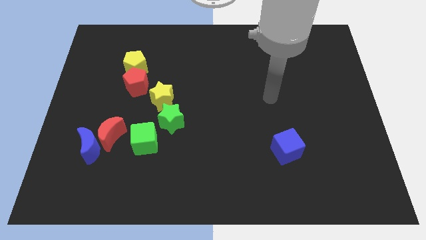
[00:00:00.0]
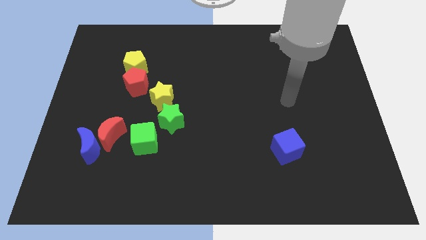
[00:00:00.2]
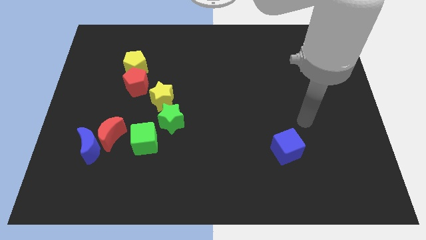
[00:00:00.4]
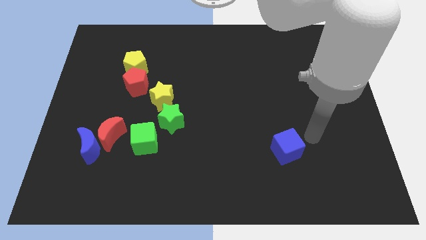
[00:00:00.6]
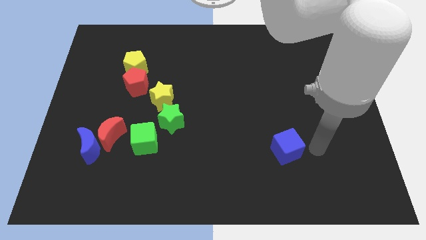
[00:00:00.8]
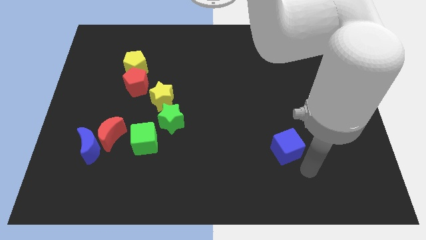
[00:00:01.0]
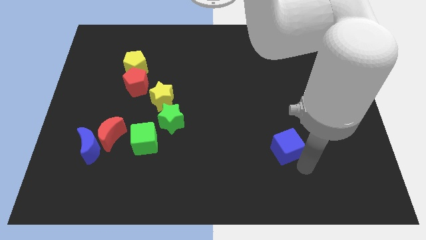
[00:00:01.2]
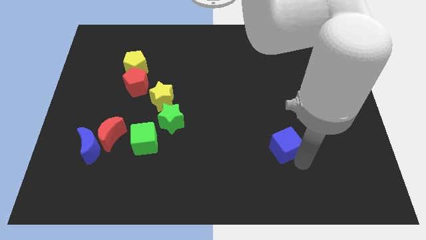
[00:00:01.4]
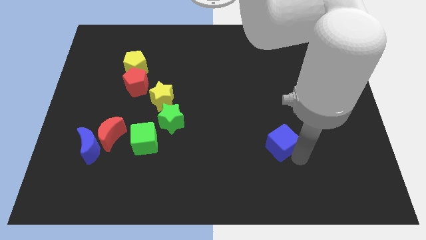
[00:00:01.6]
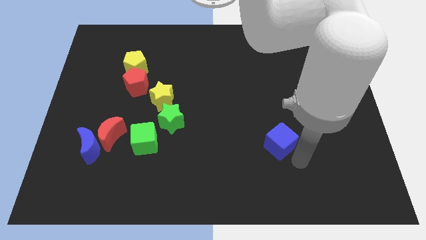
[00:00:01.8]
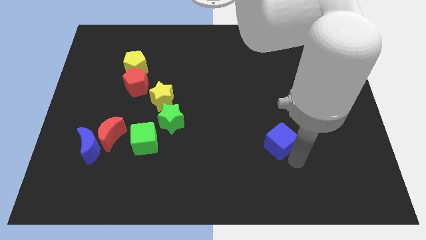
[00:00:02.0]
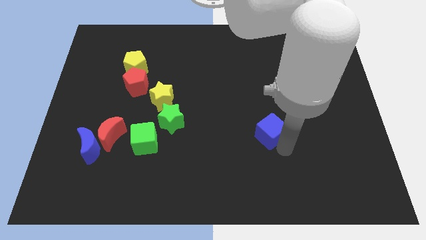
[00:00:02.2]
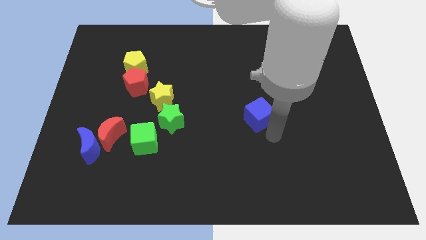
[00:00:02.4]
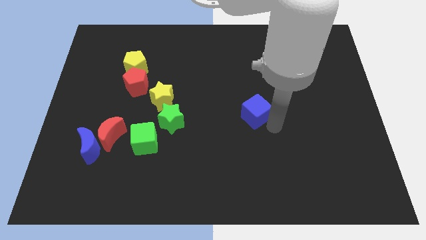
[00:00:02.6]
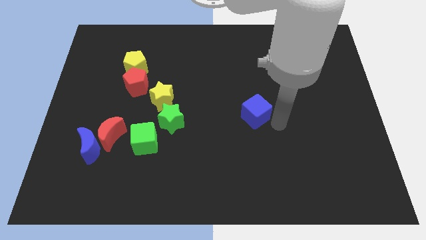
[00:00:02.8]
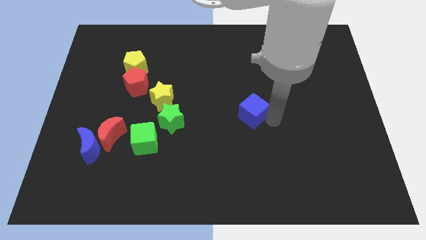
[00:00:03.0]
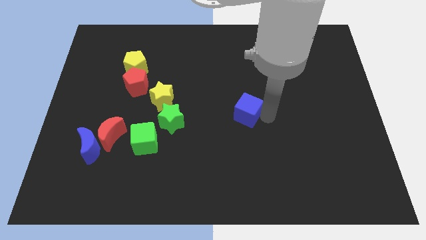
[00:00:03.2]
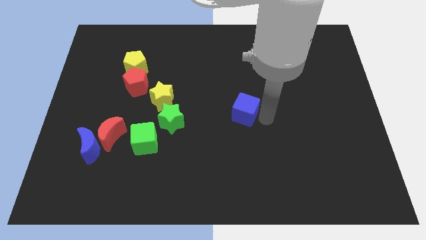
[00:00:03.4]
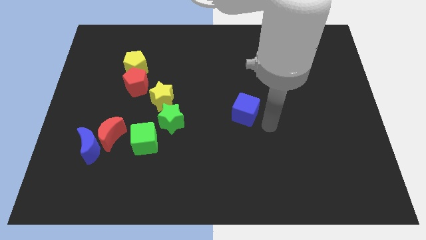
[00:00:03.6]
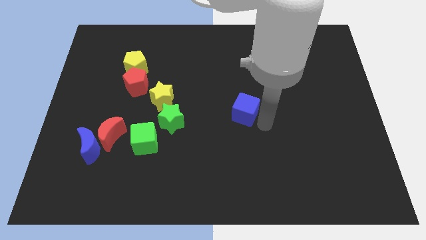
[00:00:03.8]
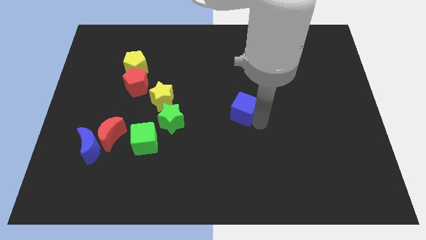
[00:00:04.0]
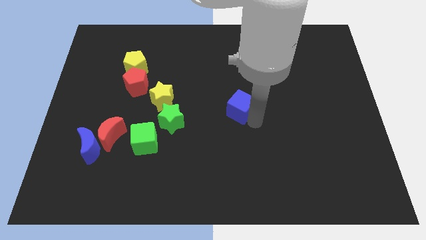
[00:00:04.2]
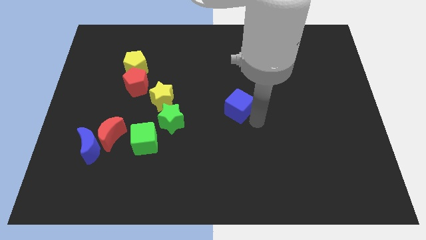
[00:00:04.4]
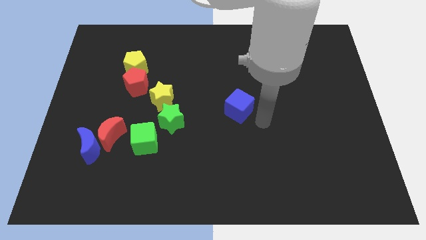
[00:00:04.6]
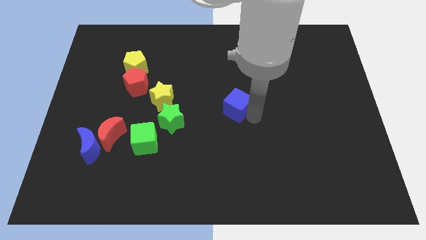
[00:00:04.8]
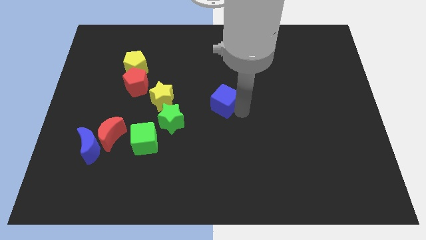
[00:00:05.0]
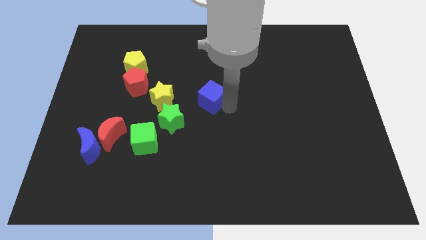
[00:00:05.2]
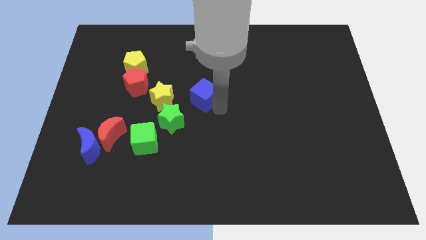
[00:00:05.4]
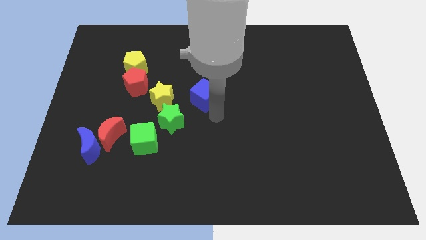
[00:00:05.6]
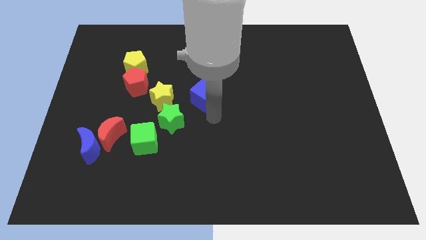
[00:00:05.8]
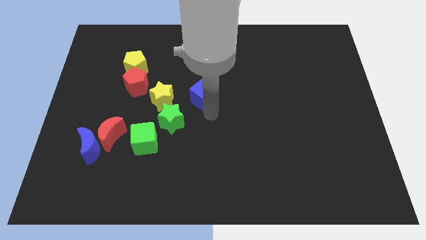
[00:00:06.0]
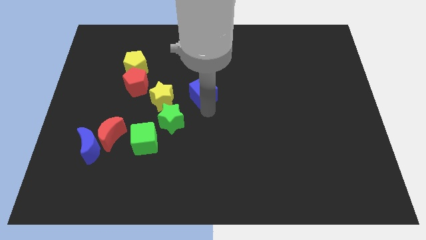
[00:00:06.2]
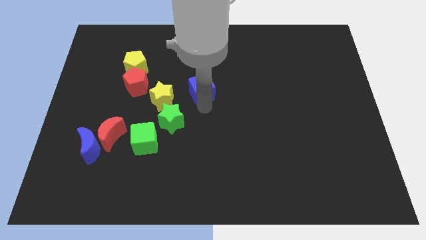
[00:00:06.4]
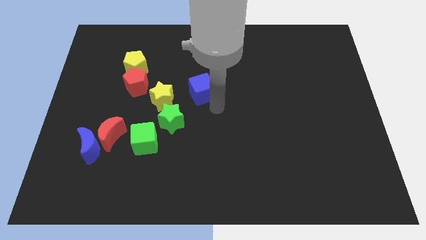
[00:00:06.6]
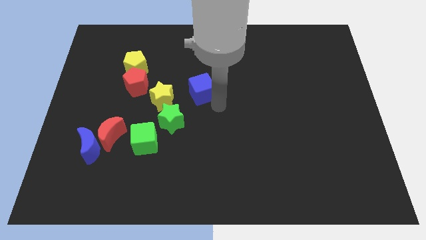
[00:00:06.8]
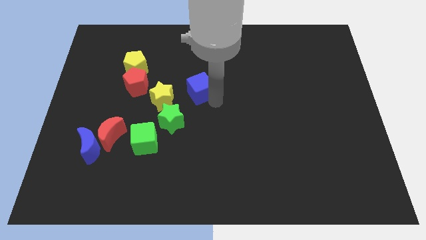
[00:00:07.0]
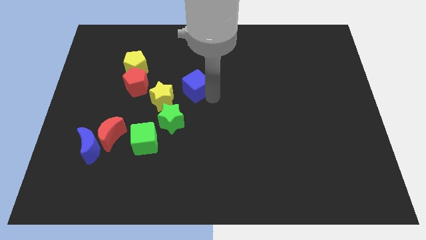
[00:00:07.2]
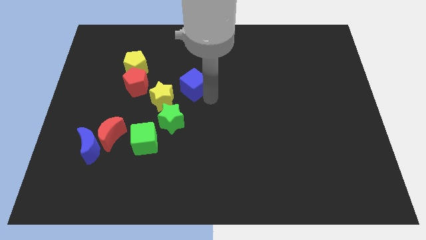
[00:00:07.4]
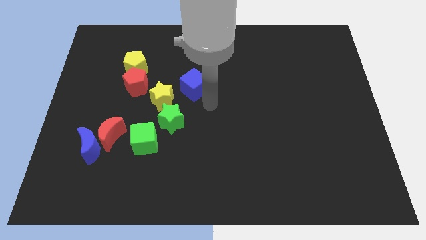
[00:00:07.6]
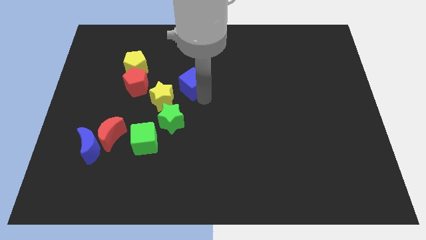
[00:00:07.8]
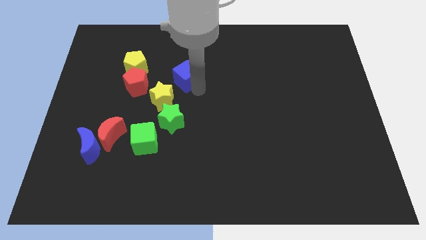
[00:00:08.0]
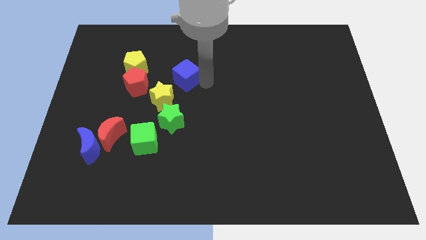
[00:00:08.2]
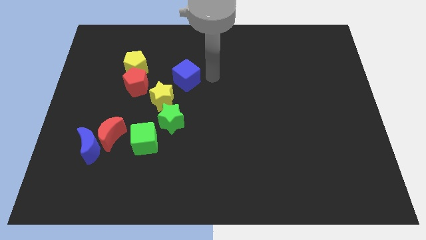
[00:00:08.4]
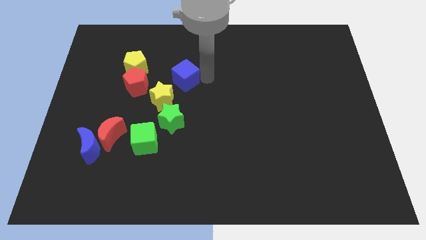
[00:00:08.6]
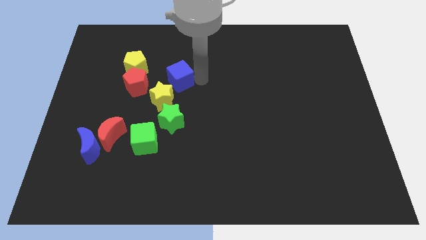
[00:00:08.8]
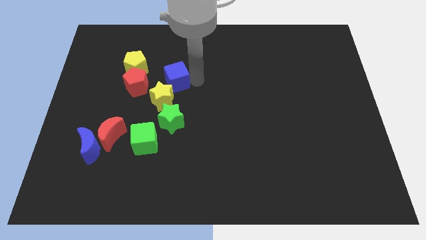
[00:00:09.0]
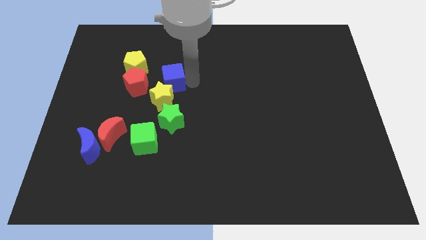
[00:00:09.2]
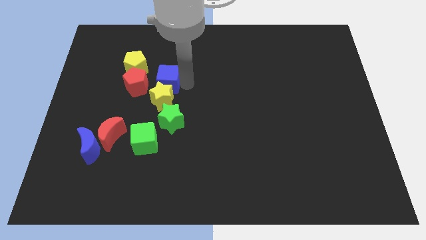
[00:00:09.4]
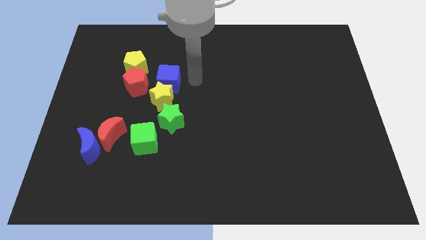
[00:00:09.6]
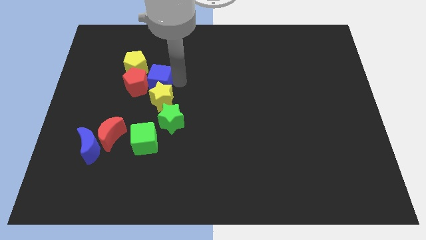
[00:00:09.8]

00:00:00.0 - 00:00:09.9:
push the blue cube close to the red pentagon

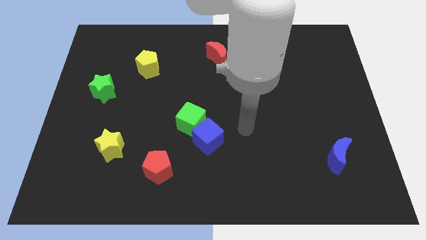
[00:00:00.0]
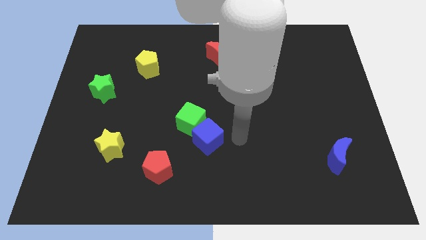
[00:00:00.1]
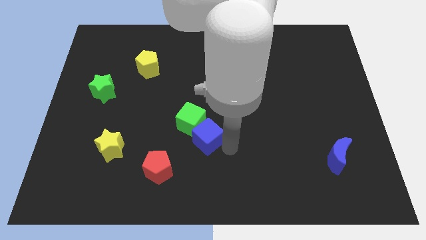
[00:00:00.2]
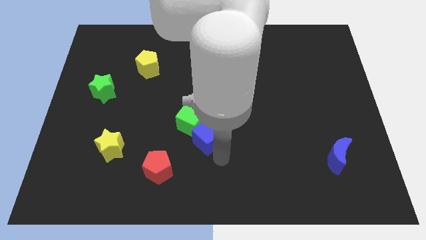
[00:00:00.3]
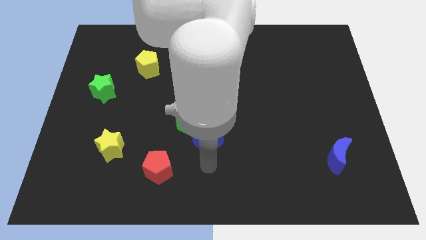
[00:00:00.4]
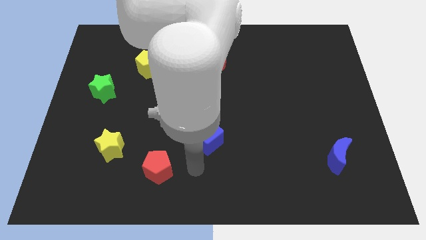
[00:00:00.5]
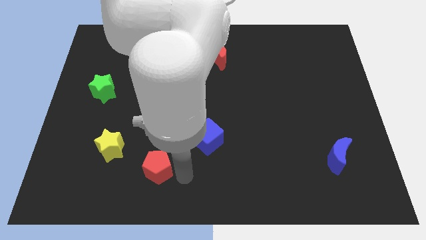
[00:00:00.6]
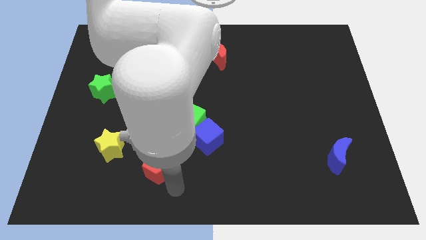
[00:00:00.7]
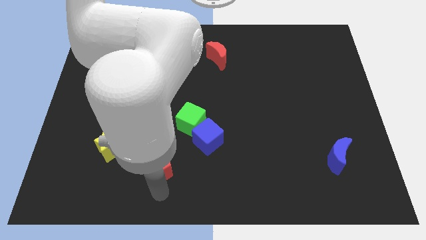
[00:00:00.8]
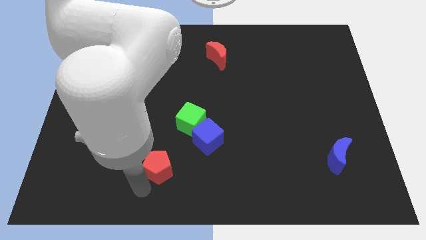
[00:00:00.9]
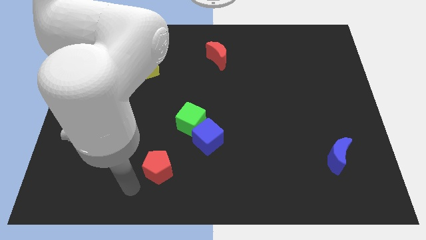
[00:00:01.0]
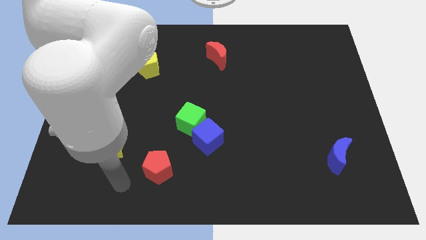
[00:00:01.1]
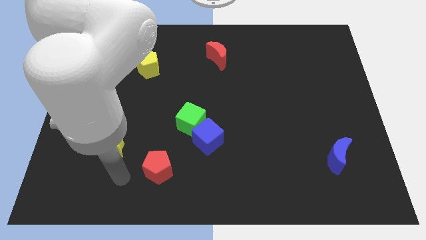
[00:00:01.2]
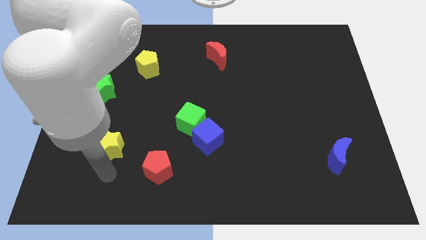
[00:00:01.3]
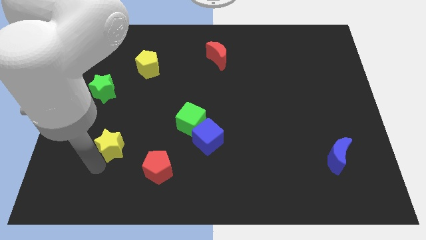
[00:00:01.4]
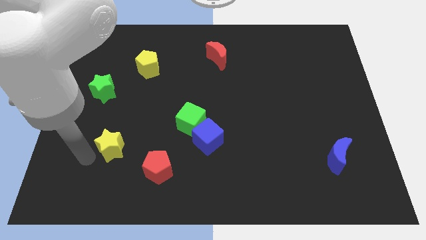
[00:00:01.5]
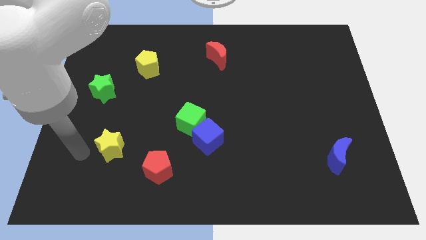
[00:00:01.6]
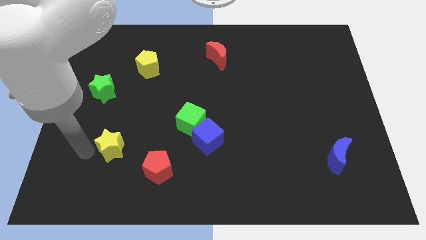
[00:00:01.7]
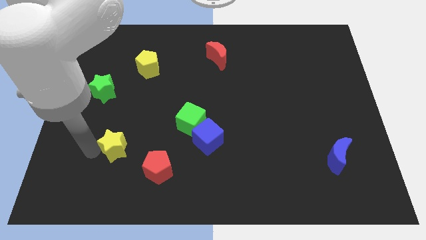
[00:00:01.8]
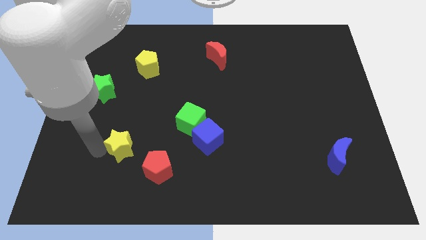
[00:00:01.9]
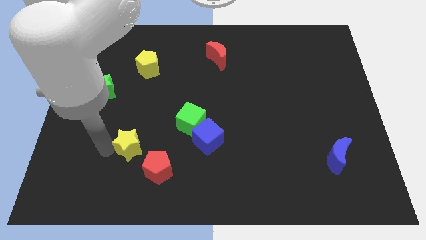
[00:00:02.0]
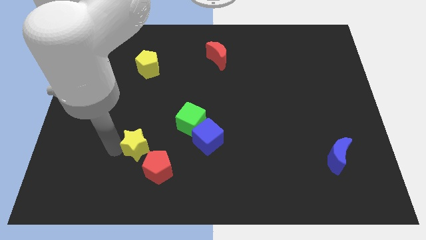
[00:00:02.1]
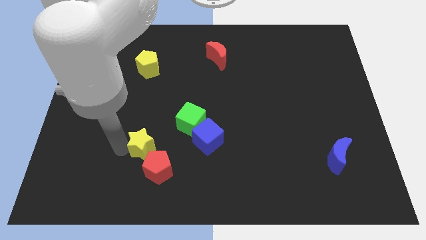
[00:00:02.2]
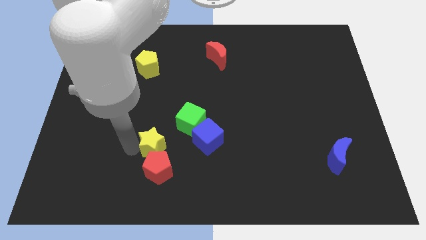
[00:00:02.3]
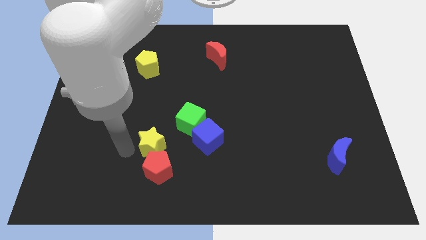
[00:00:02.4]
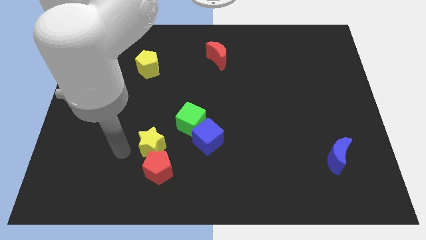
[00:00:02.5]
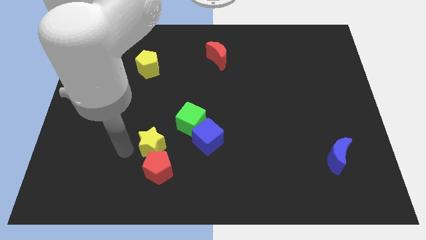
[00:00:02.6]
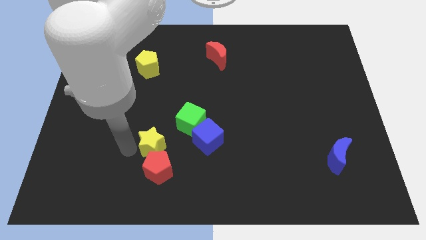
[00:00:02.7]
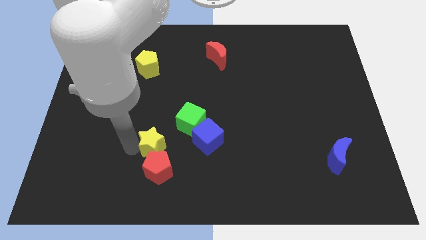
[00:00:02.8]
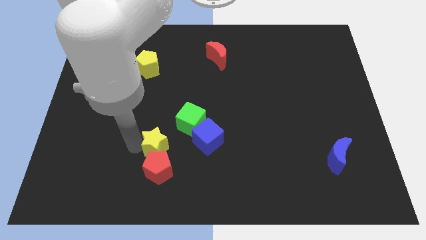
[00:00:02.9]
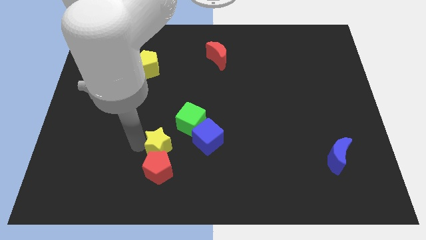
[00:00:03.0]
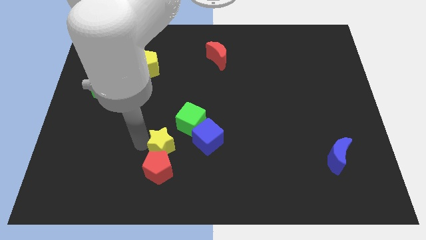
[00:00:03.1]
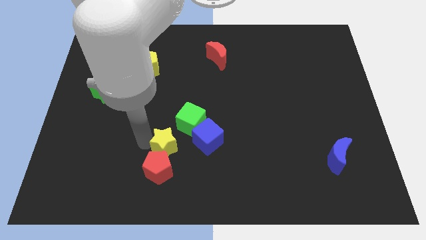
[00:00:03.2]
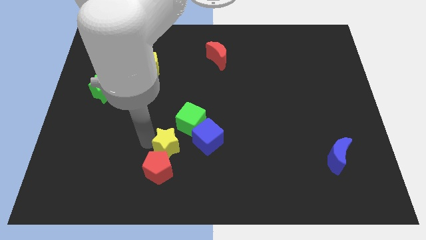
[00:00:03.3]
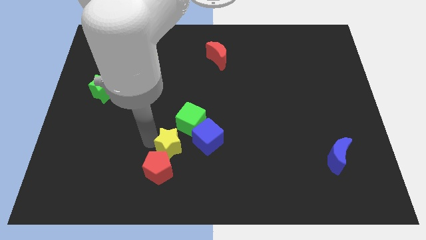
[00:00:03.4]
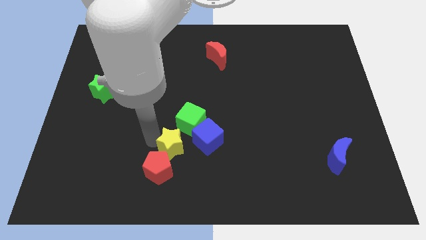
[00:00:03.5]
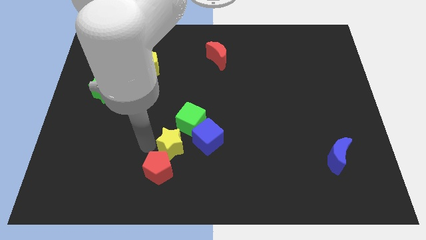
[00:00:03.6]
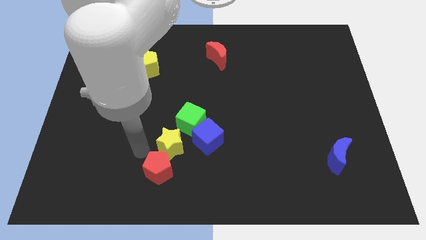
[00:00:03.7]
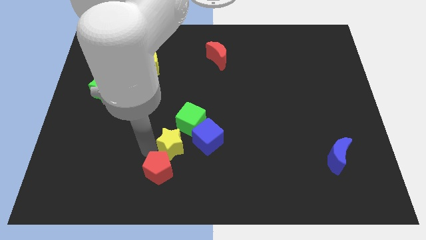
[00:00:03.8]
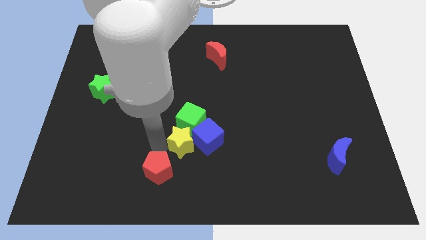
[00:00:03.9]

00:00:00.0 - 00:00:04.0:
put the yellow star next to the blue cube
